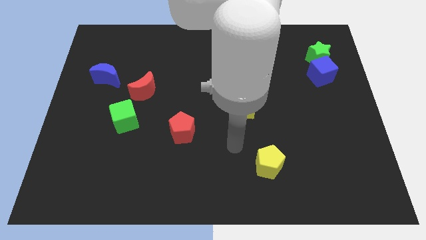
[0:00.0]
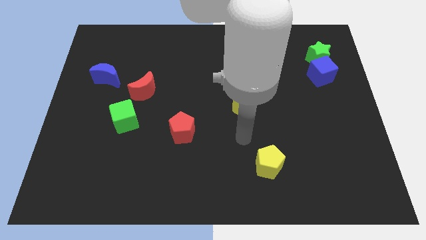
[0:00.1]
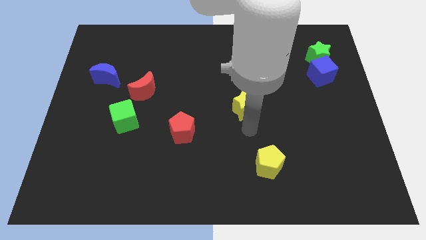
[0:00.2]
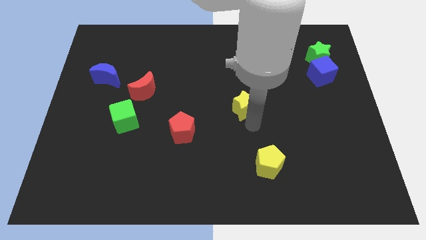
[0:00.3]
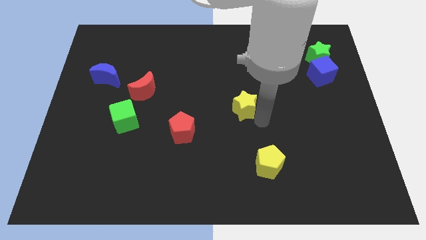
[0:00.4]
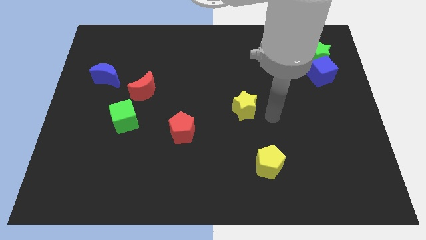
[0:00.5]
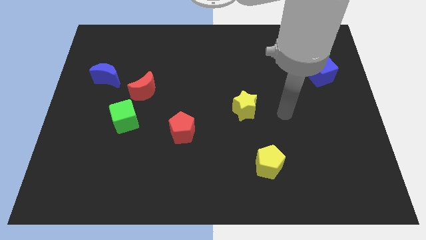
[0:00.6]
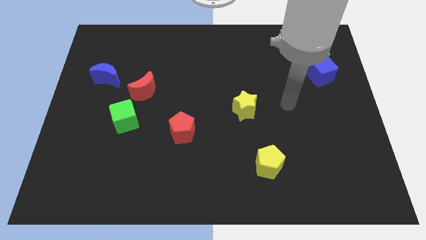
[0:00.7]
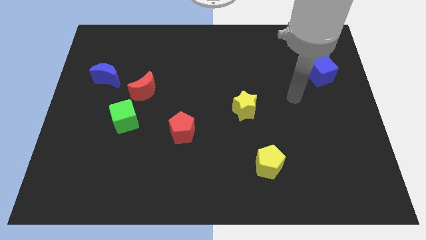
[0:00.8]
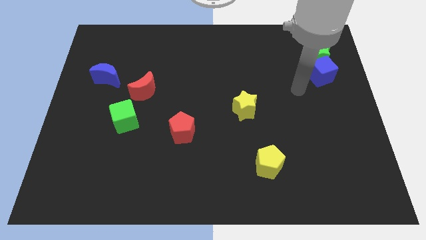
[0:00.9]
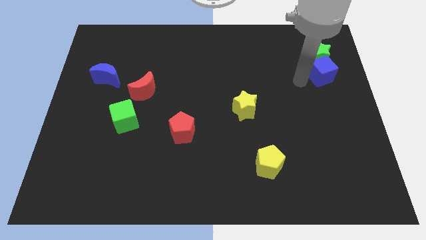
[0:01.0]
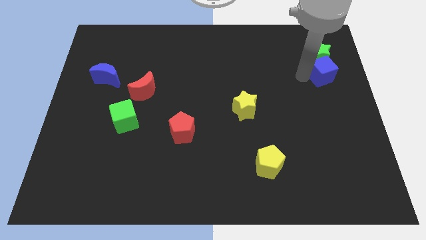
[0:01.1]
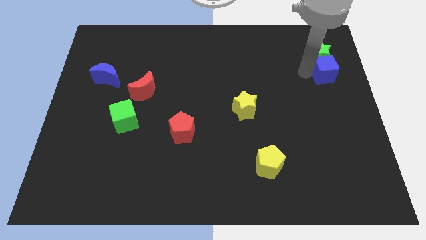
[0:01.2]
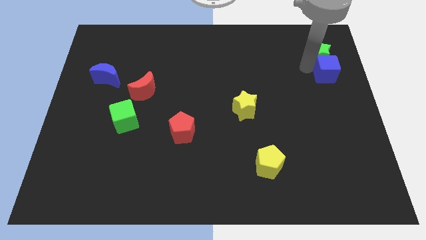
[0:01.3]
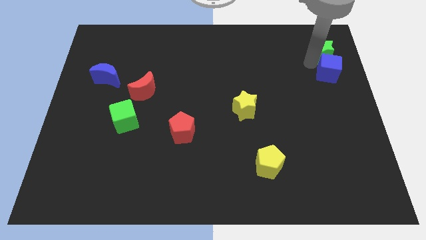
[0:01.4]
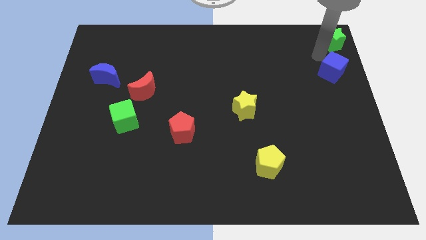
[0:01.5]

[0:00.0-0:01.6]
move the blue cube away from the green star

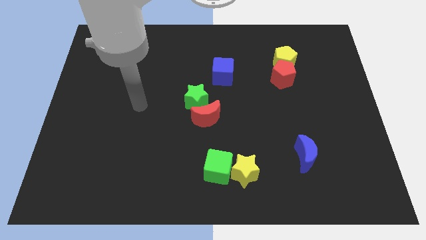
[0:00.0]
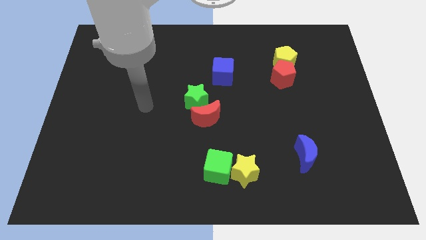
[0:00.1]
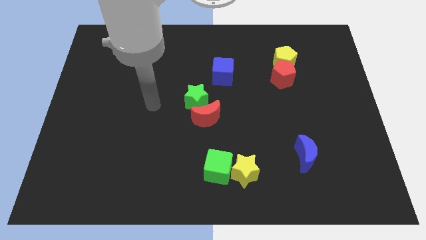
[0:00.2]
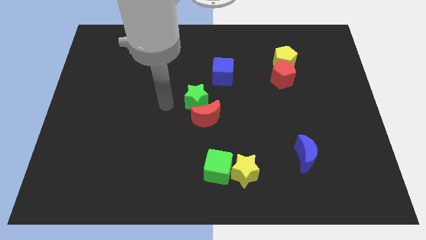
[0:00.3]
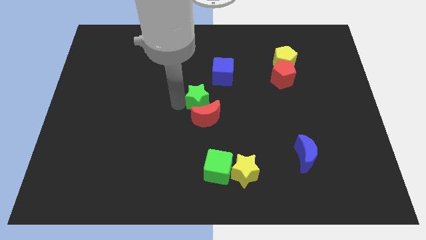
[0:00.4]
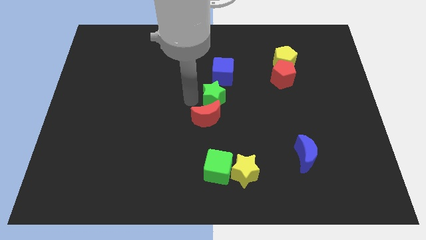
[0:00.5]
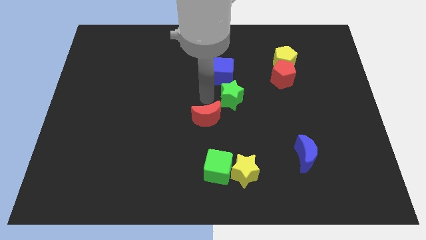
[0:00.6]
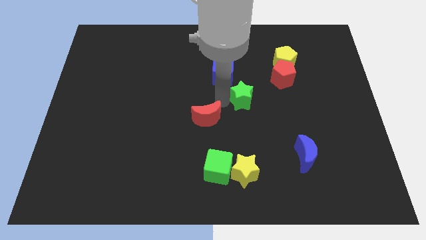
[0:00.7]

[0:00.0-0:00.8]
separate the red moon from the green star

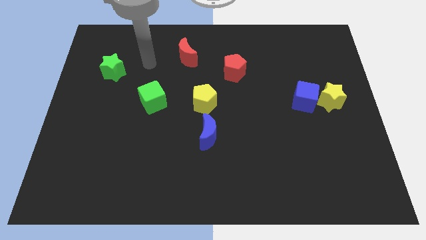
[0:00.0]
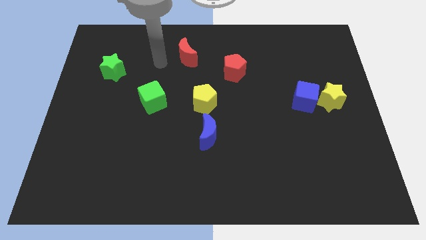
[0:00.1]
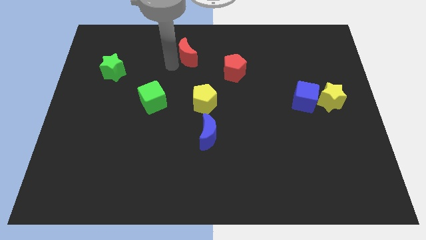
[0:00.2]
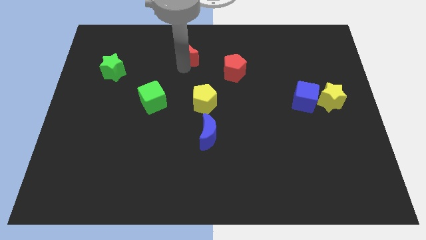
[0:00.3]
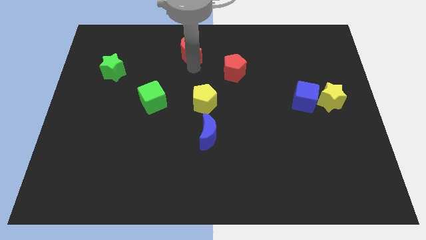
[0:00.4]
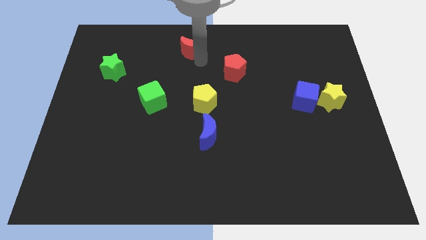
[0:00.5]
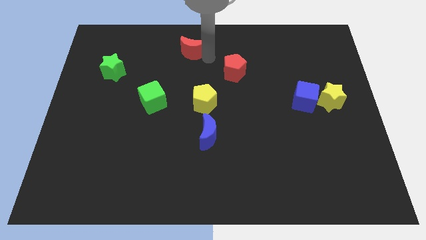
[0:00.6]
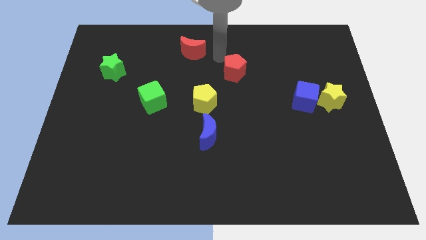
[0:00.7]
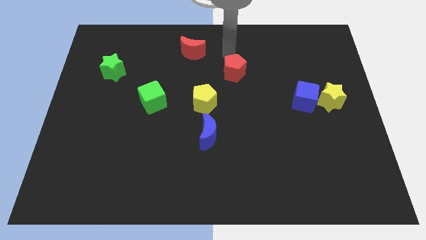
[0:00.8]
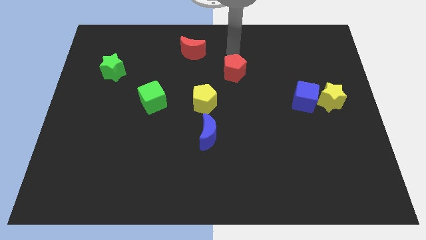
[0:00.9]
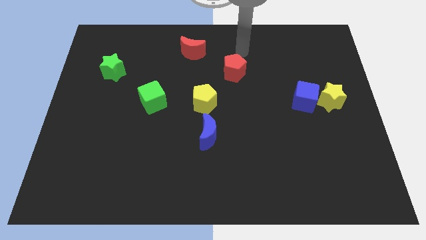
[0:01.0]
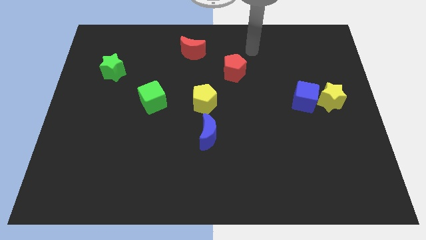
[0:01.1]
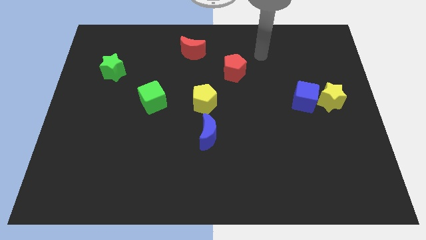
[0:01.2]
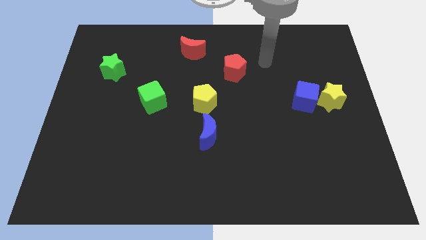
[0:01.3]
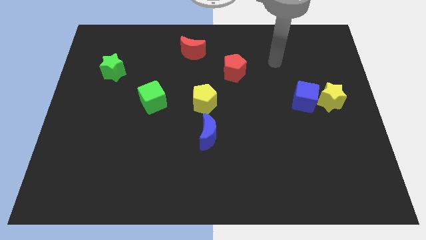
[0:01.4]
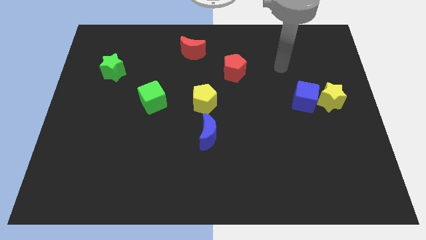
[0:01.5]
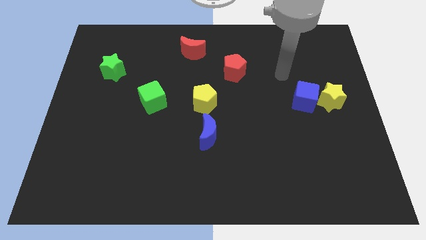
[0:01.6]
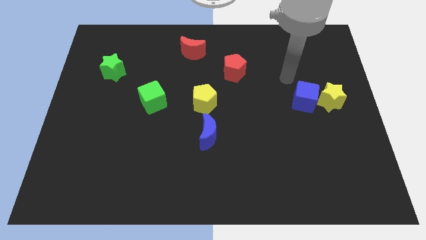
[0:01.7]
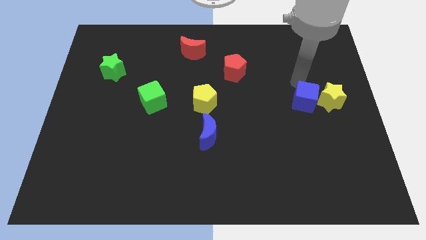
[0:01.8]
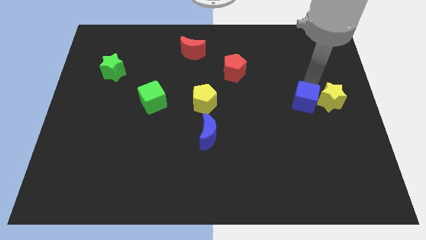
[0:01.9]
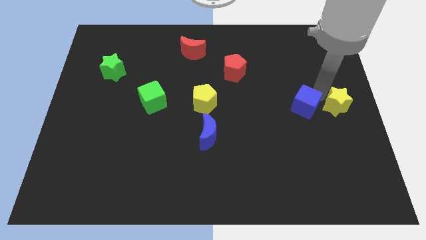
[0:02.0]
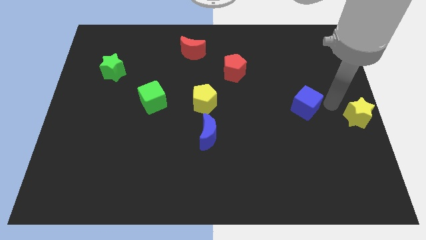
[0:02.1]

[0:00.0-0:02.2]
separate the blue cube from the yellow star

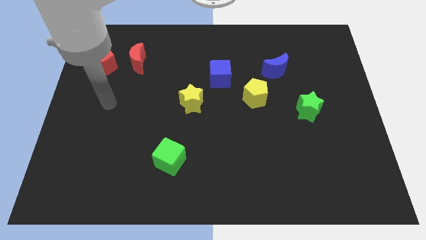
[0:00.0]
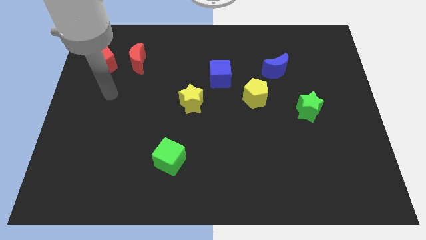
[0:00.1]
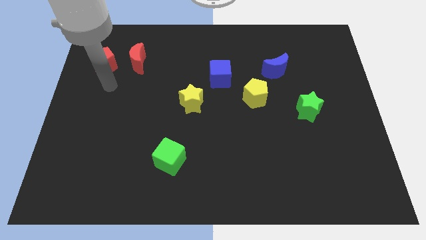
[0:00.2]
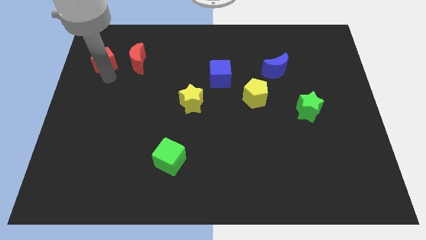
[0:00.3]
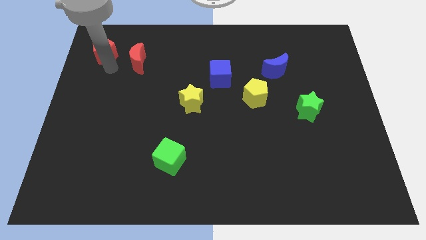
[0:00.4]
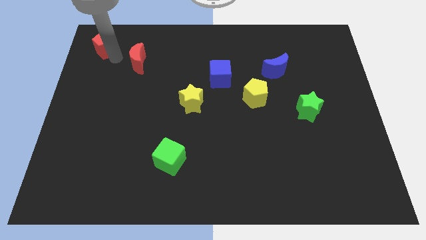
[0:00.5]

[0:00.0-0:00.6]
move the red moon away from the red pentagon

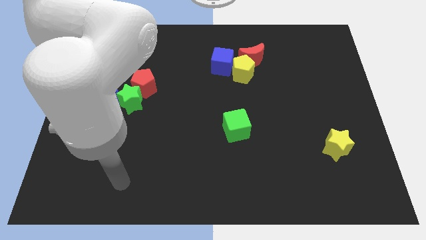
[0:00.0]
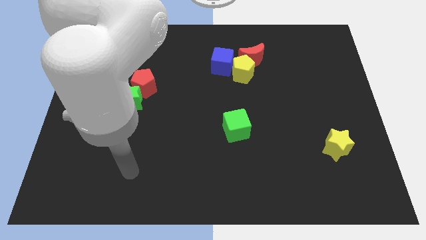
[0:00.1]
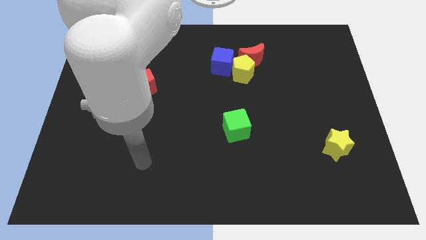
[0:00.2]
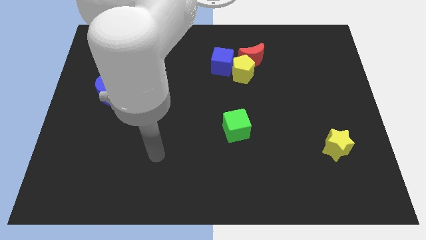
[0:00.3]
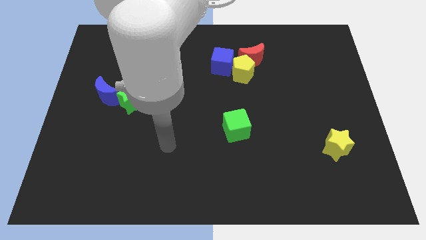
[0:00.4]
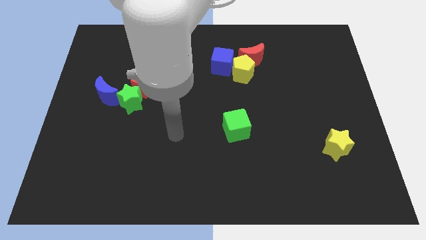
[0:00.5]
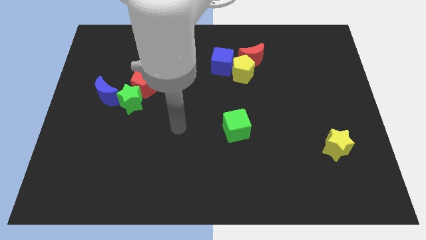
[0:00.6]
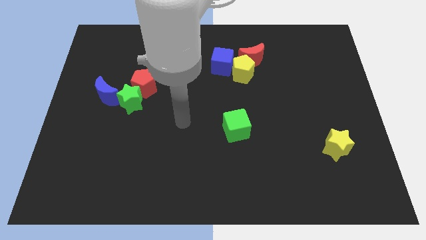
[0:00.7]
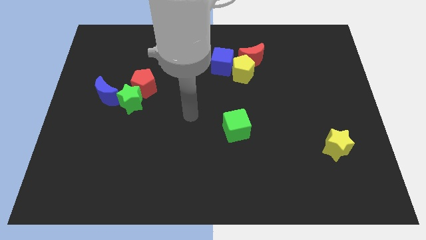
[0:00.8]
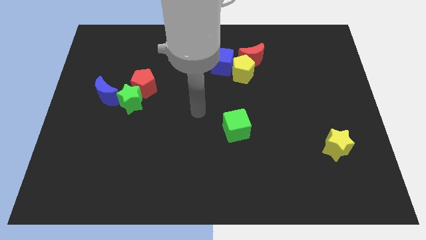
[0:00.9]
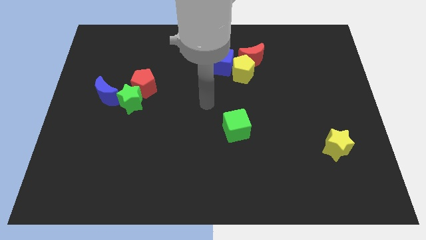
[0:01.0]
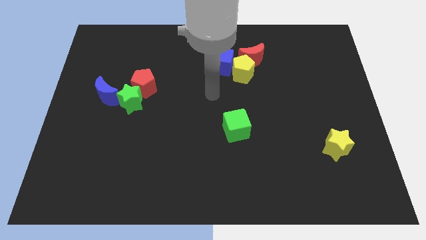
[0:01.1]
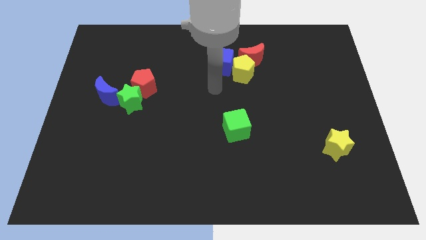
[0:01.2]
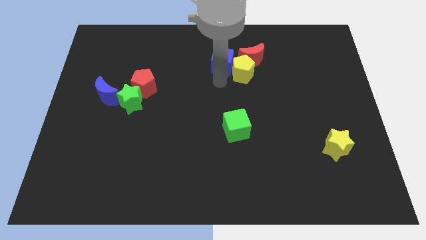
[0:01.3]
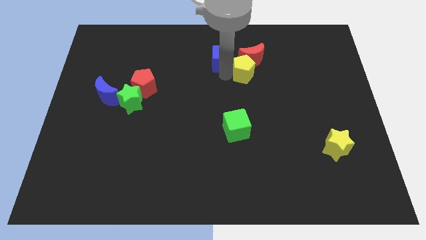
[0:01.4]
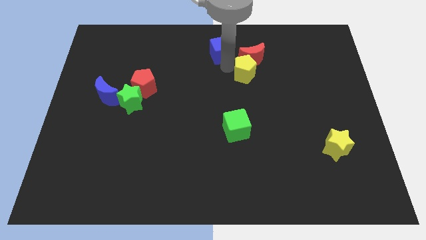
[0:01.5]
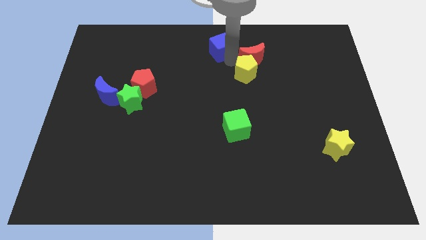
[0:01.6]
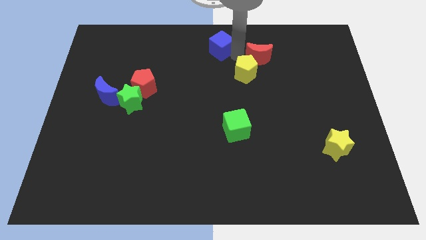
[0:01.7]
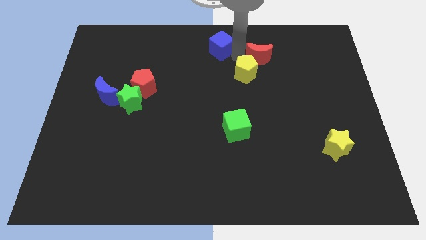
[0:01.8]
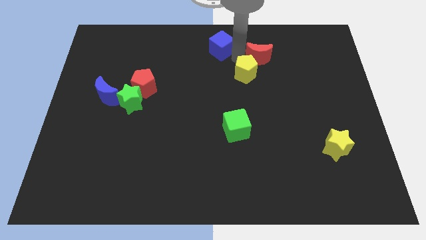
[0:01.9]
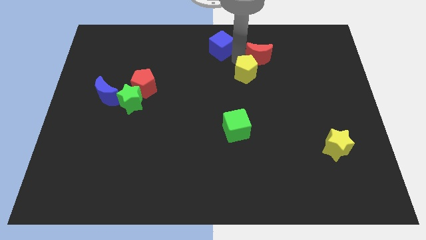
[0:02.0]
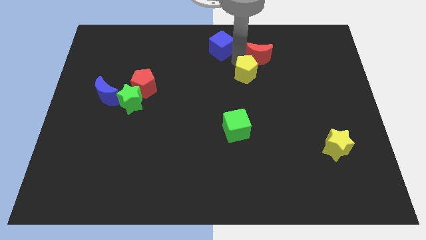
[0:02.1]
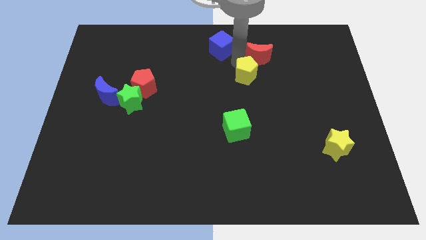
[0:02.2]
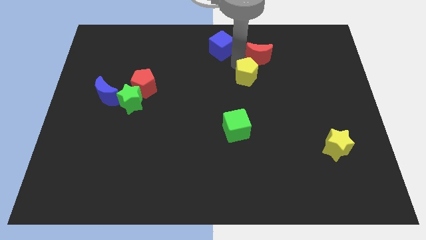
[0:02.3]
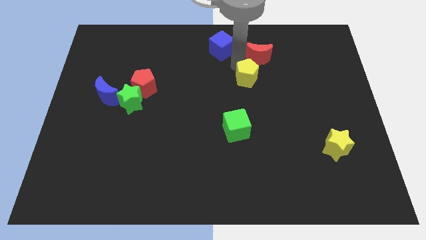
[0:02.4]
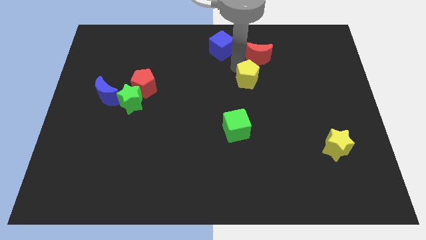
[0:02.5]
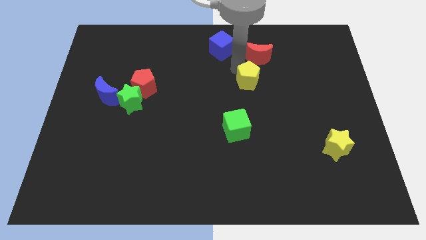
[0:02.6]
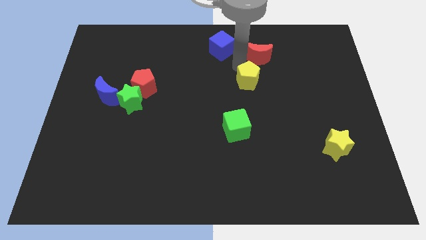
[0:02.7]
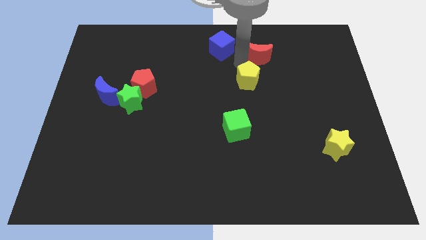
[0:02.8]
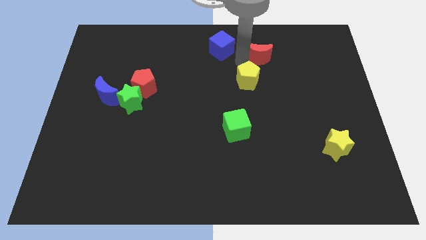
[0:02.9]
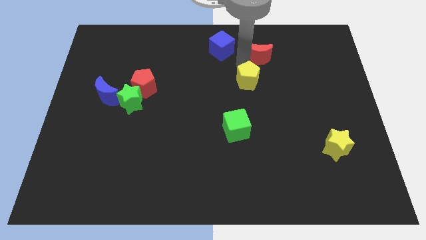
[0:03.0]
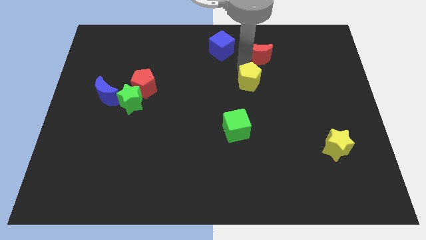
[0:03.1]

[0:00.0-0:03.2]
move the yellow pentagon away from the red moon and blue cube

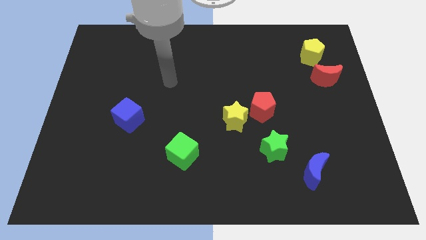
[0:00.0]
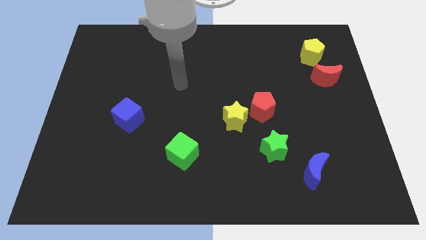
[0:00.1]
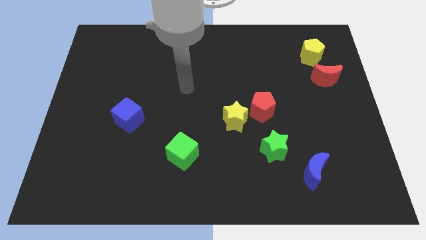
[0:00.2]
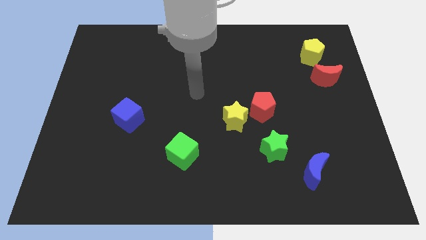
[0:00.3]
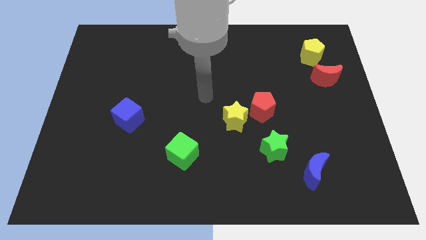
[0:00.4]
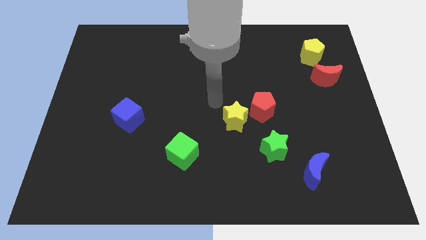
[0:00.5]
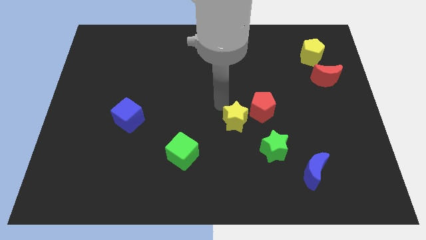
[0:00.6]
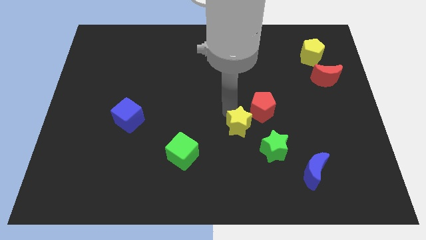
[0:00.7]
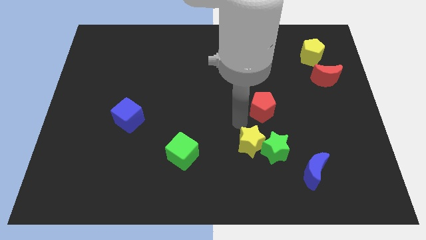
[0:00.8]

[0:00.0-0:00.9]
separate the red pentagon from the yellow star
